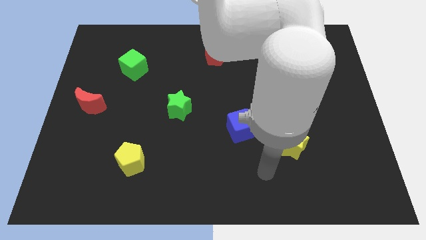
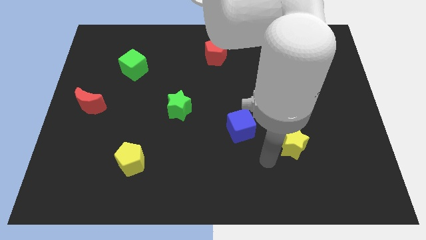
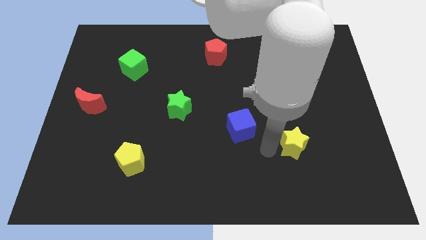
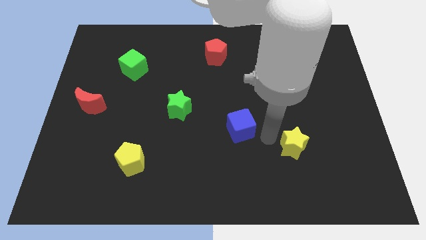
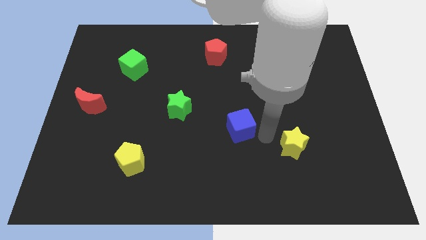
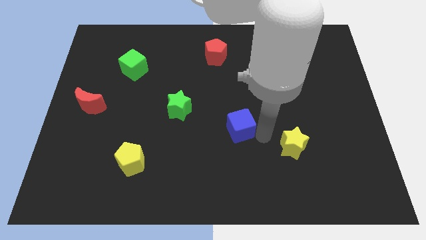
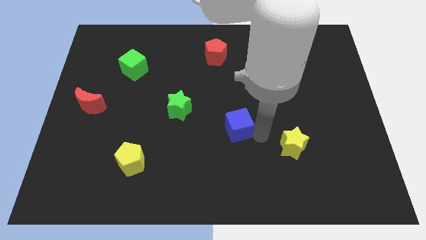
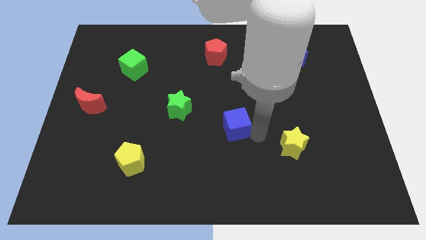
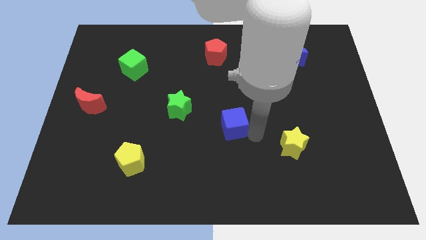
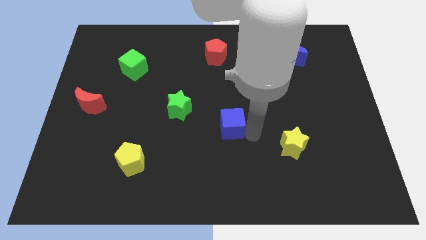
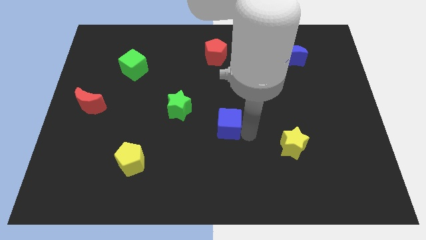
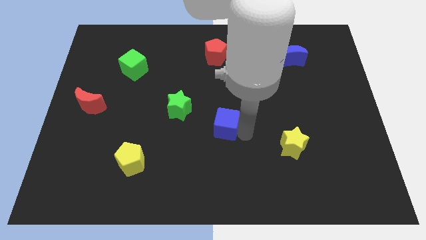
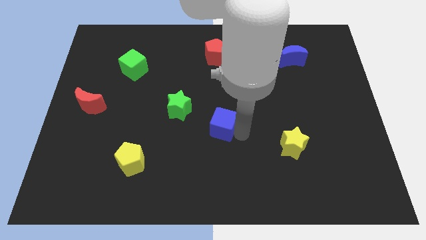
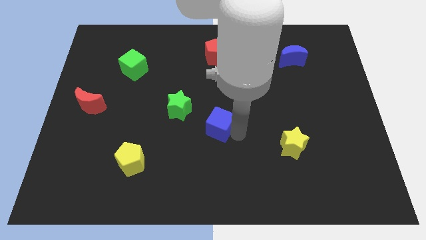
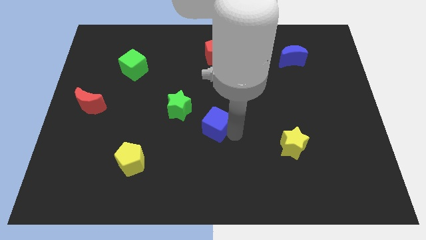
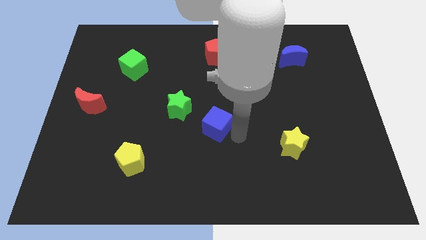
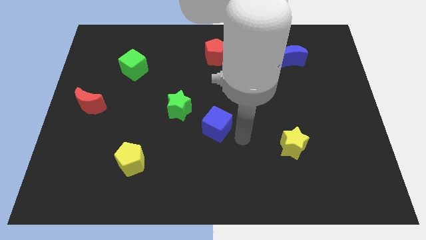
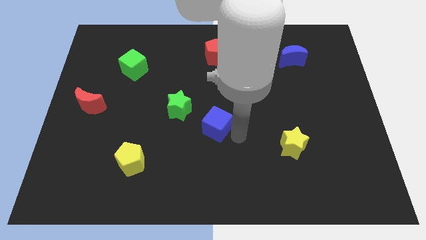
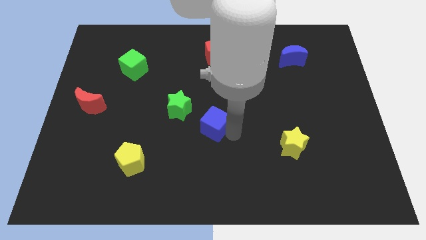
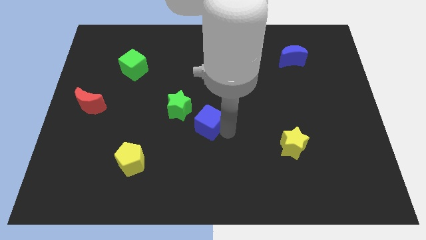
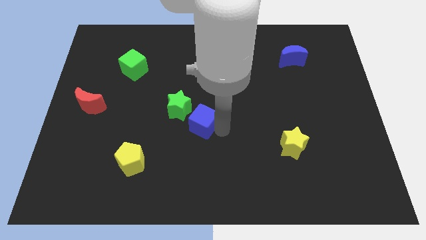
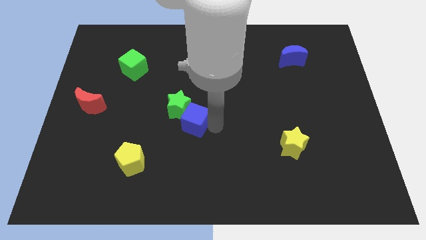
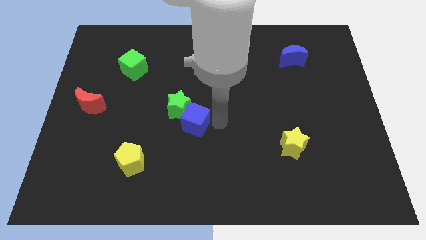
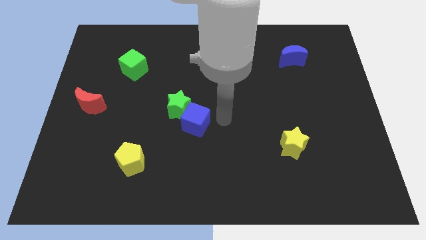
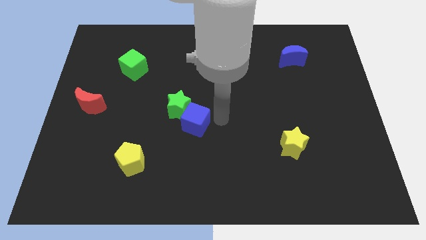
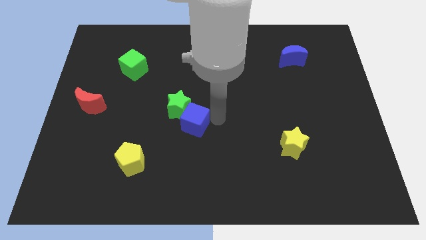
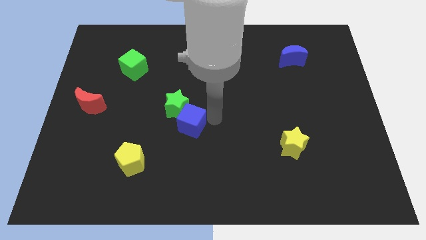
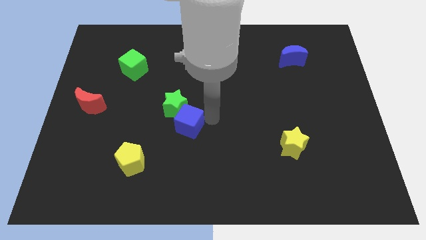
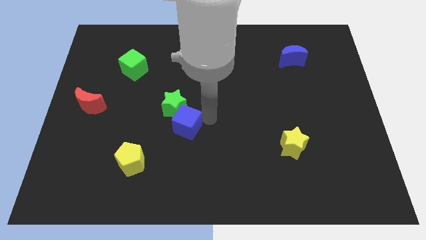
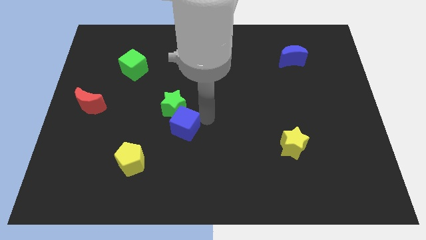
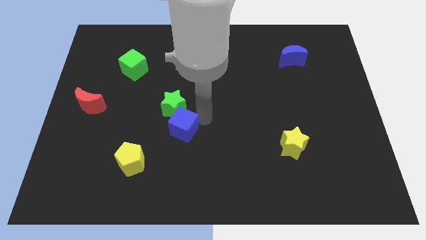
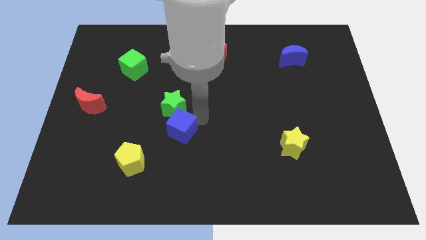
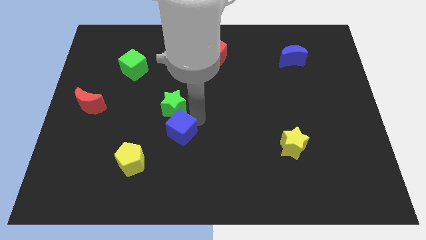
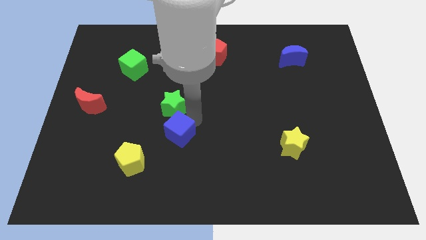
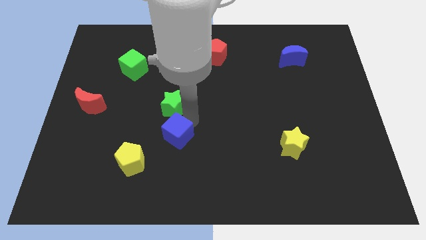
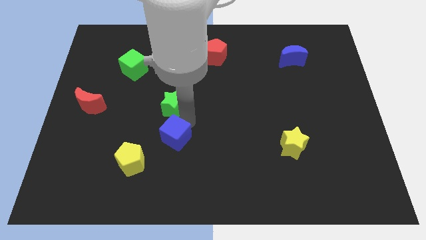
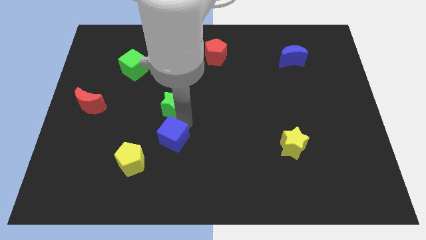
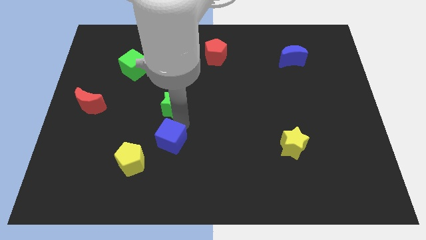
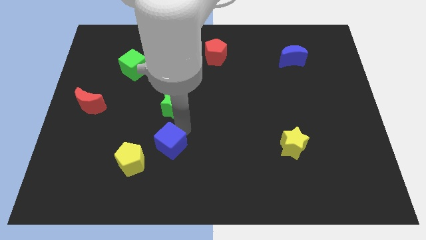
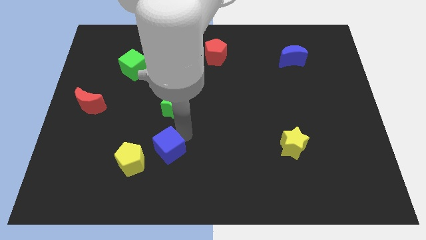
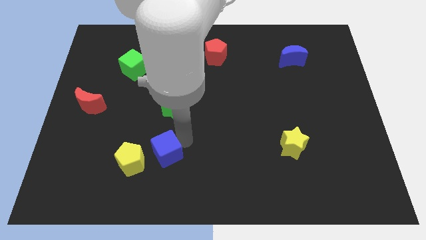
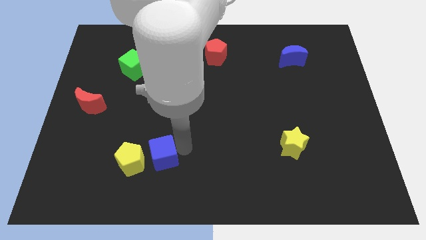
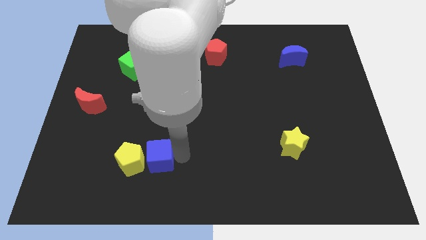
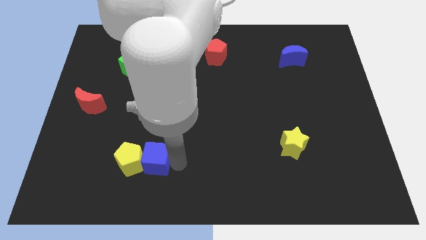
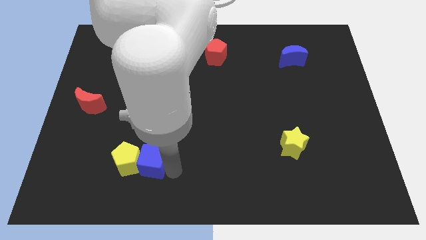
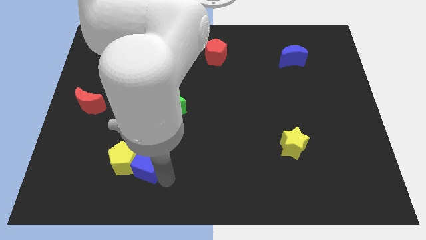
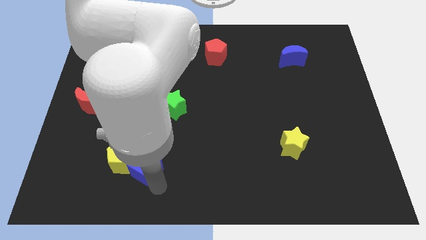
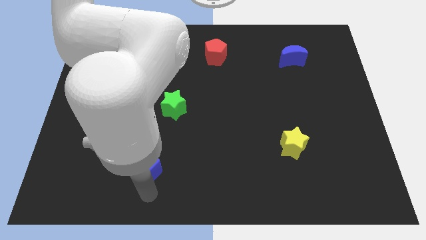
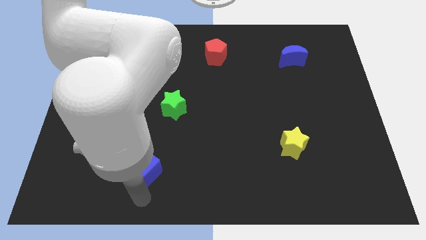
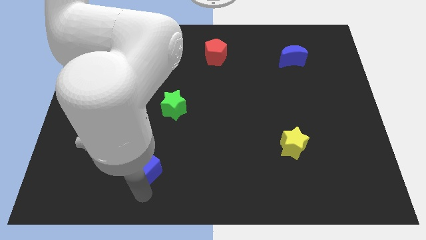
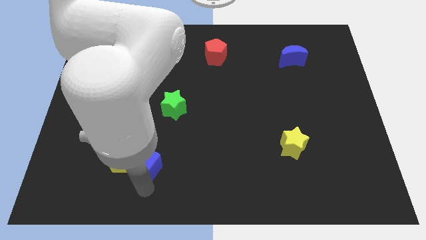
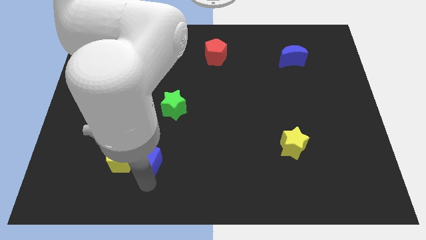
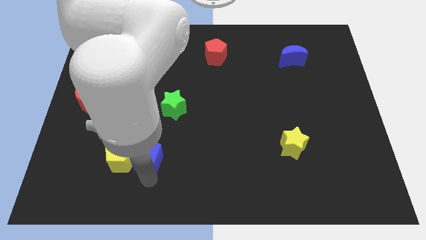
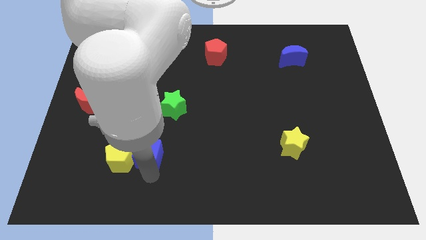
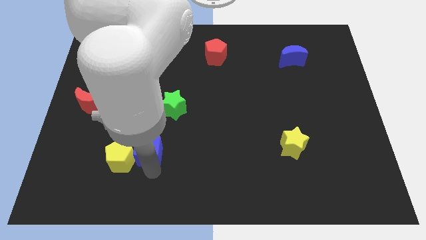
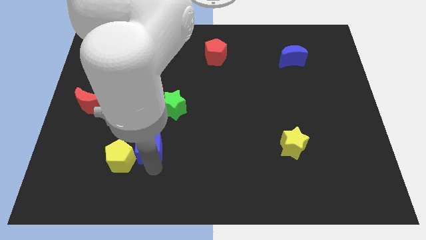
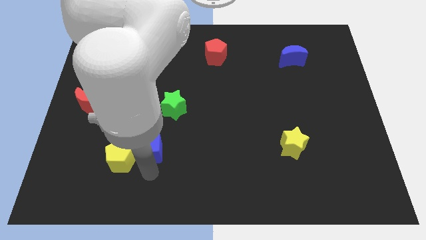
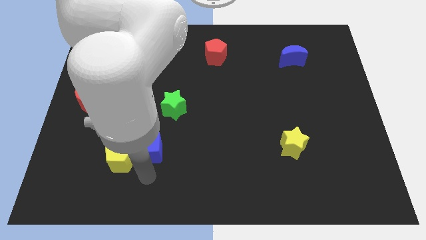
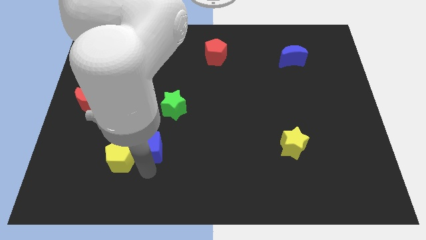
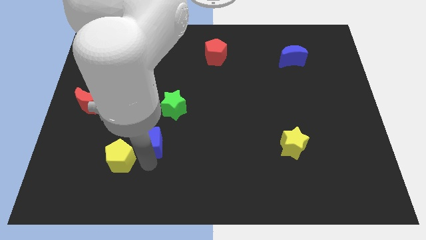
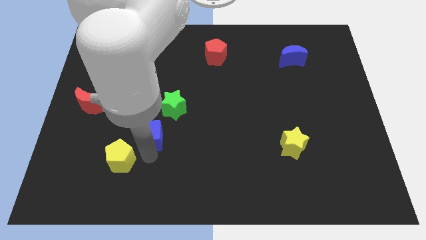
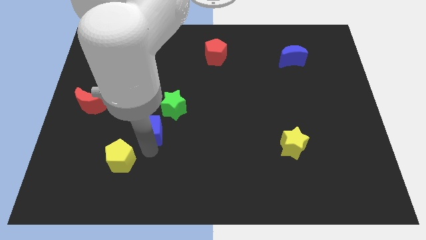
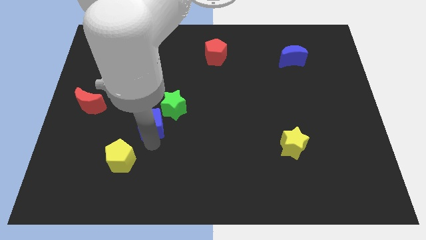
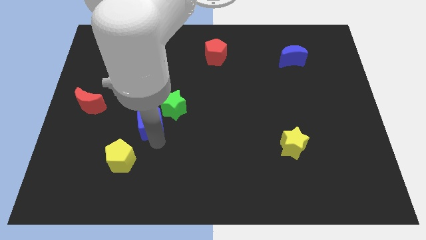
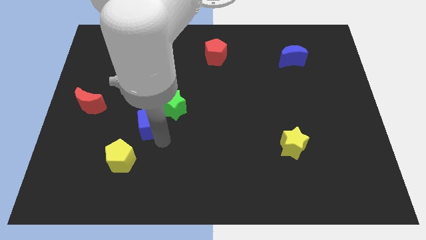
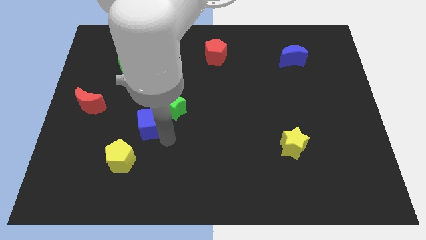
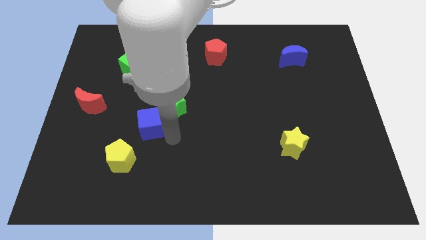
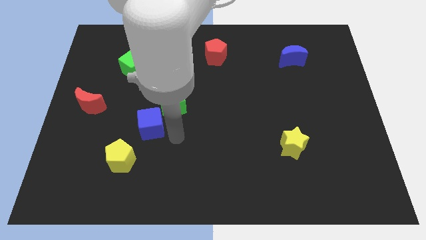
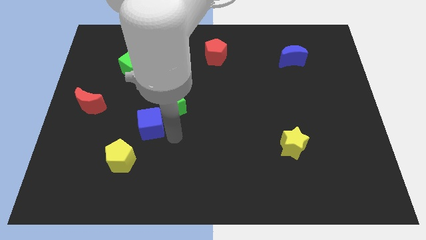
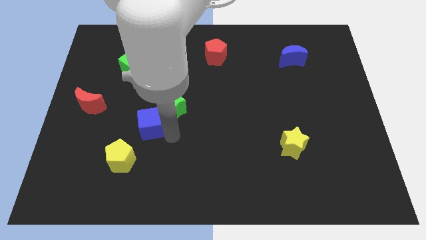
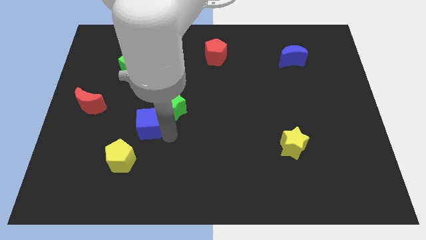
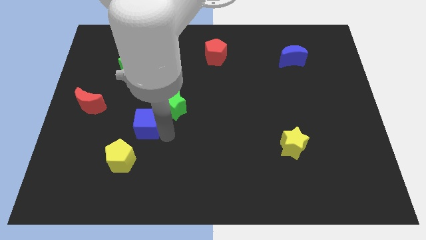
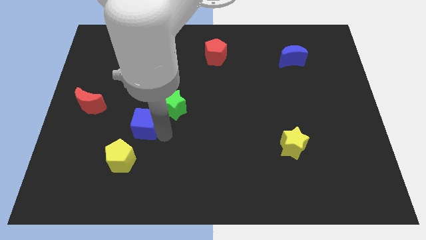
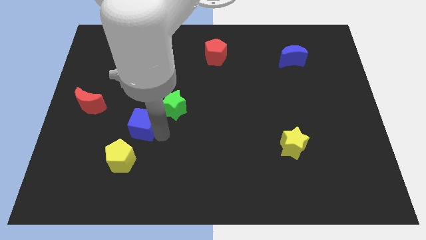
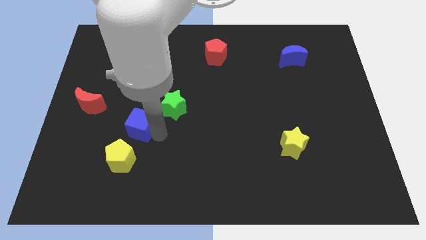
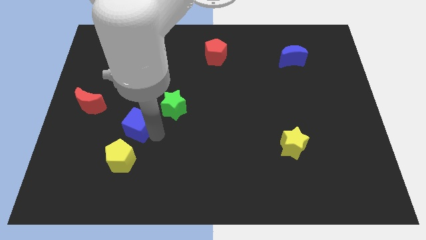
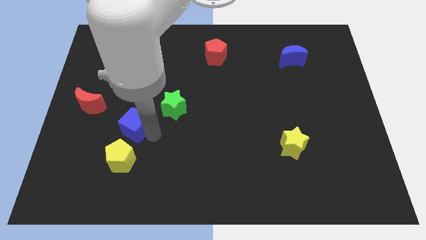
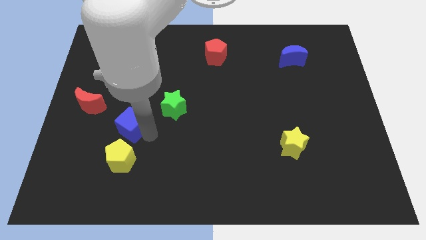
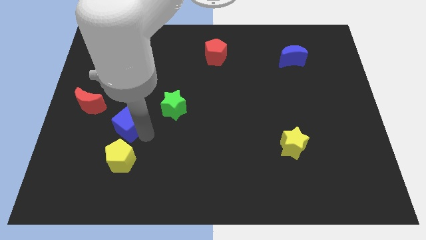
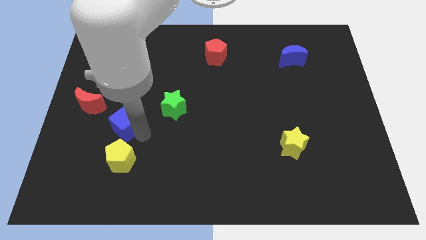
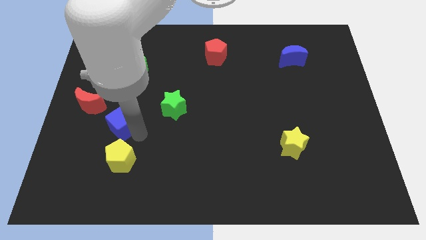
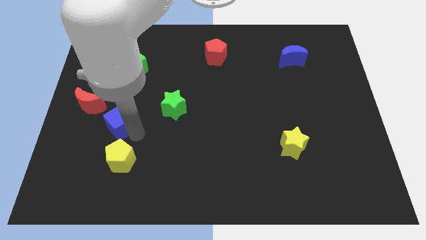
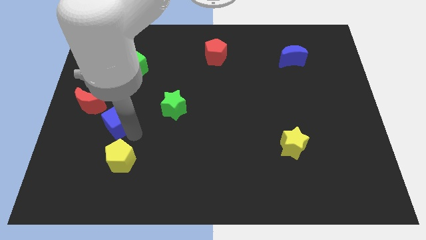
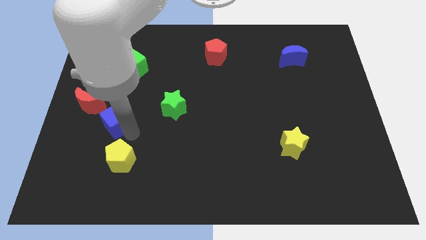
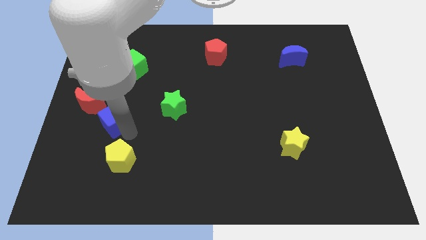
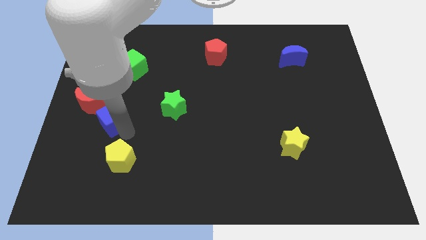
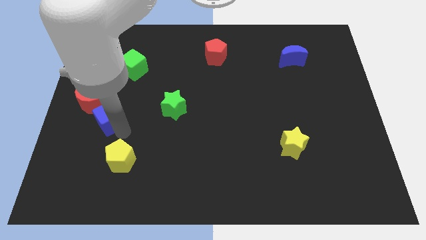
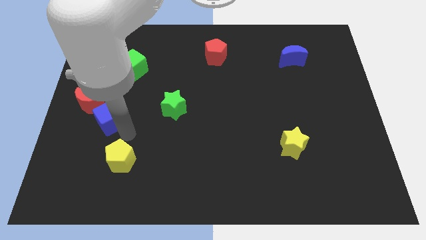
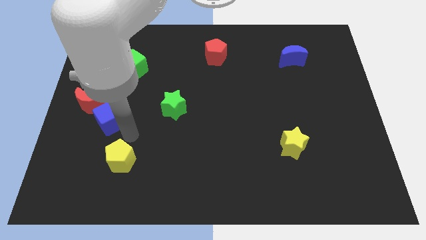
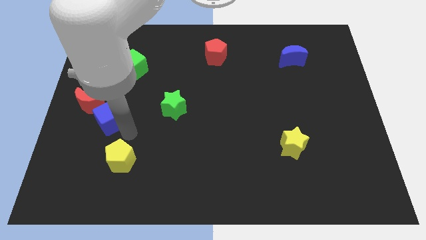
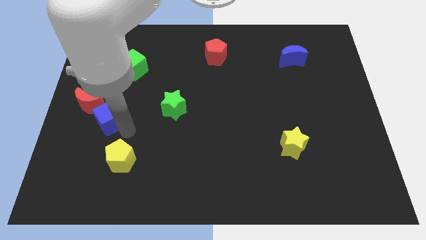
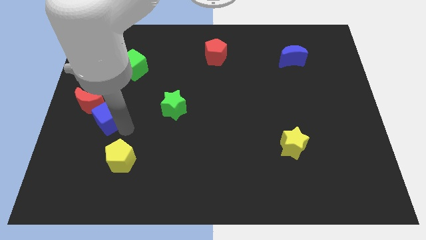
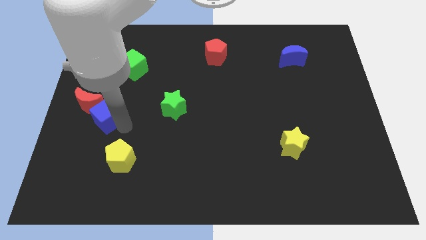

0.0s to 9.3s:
slide the blue cube to the red moon
